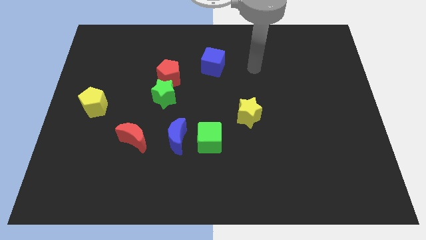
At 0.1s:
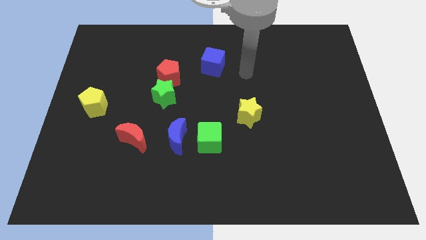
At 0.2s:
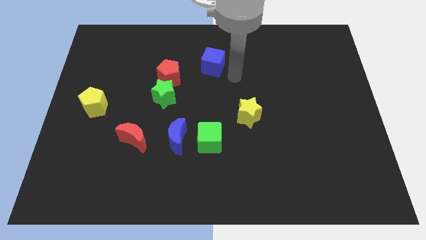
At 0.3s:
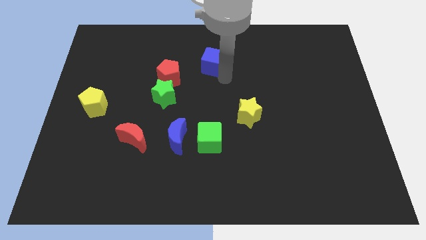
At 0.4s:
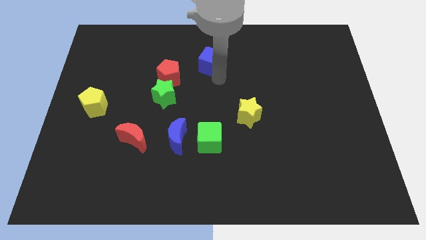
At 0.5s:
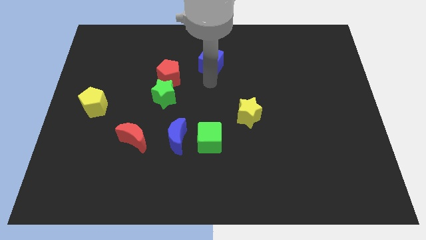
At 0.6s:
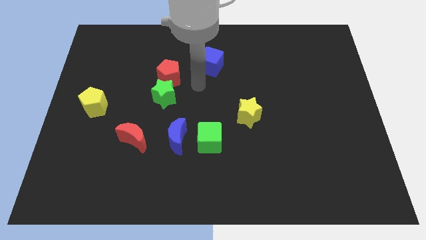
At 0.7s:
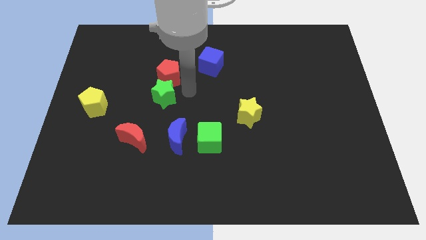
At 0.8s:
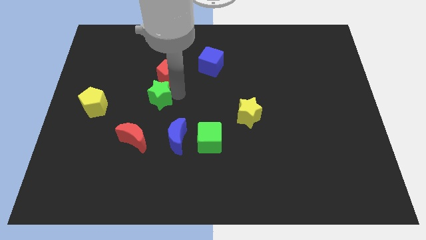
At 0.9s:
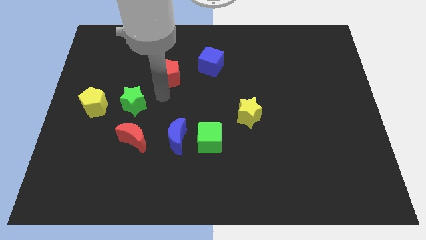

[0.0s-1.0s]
pull the red pentagon apart from the green star

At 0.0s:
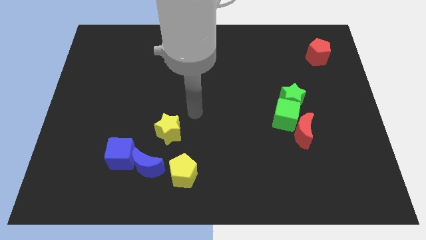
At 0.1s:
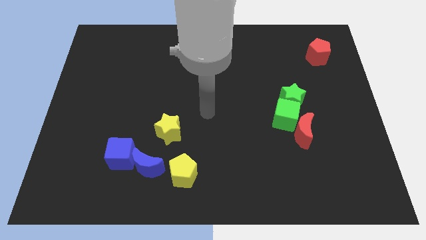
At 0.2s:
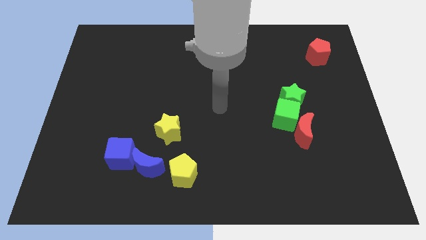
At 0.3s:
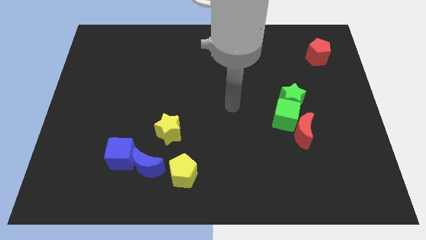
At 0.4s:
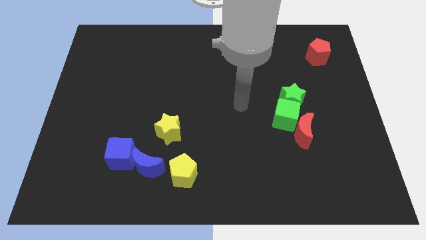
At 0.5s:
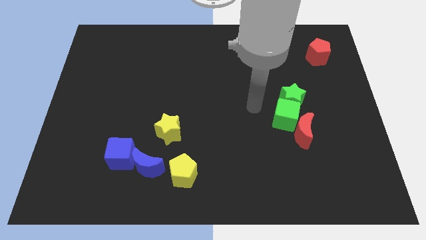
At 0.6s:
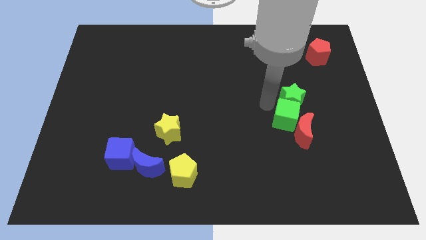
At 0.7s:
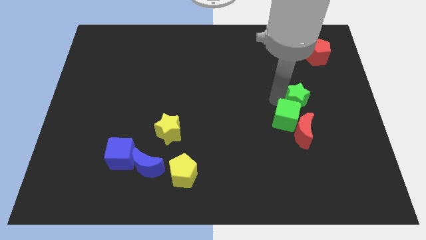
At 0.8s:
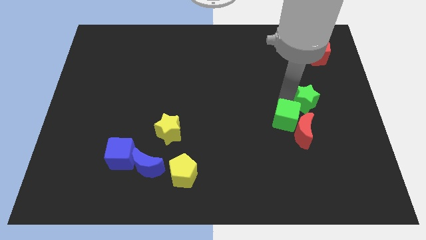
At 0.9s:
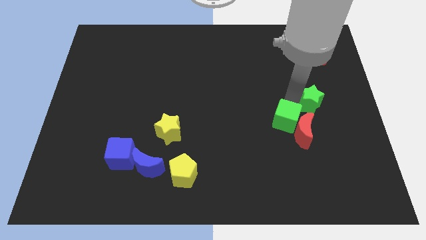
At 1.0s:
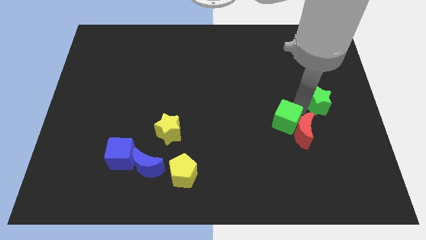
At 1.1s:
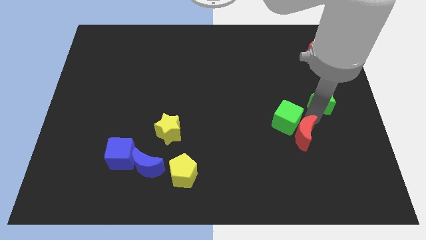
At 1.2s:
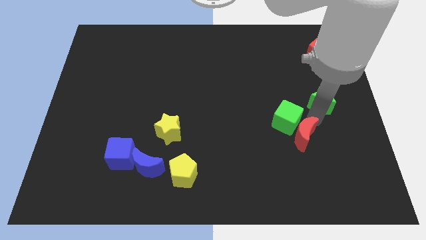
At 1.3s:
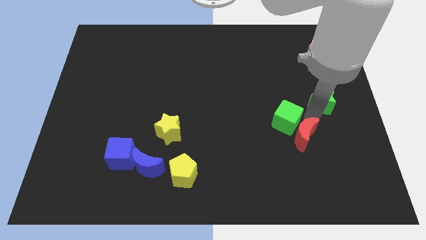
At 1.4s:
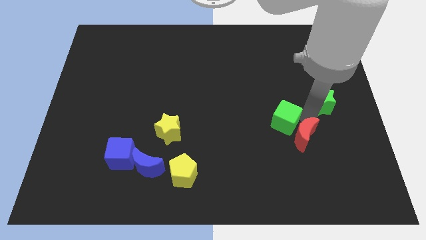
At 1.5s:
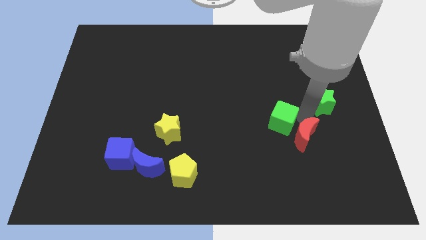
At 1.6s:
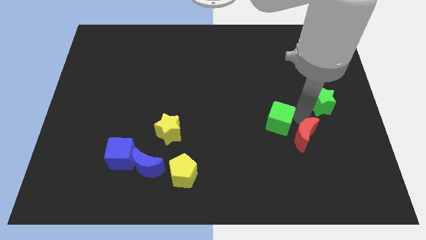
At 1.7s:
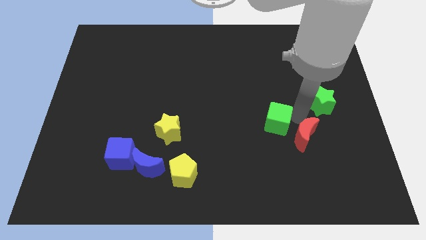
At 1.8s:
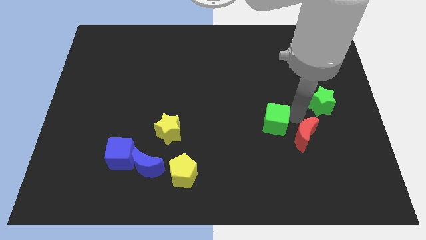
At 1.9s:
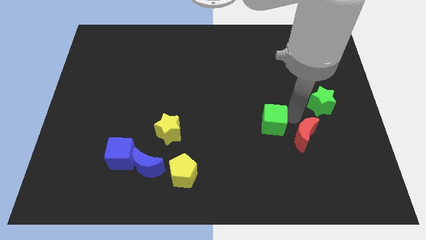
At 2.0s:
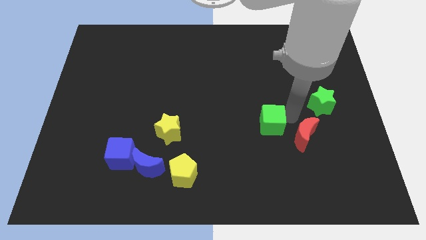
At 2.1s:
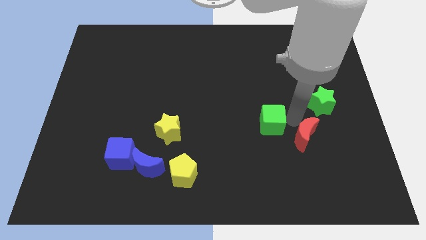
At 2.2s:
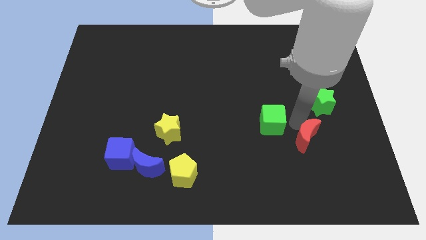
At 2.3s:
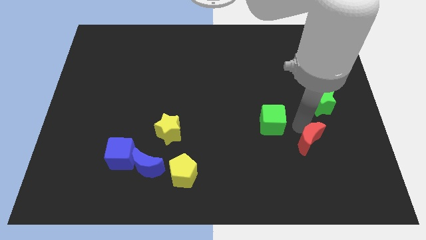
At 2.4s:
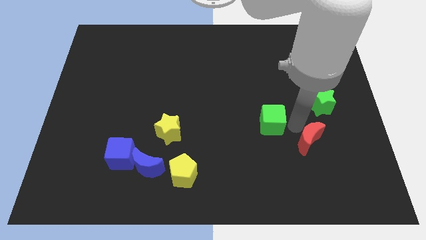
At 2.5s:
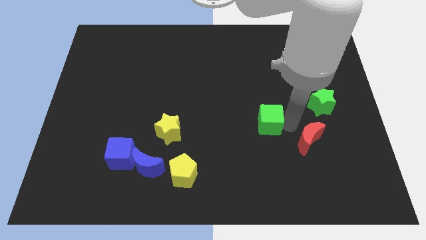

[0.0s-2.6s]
move the green cube away from the green star and red moon

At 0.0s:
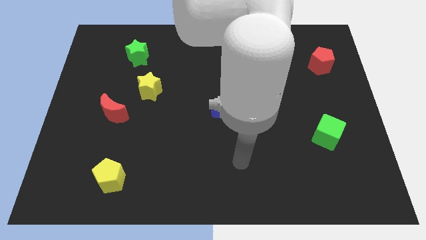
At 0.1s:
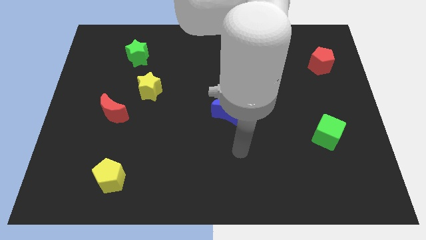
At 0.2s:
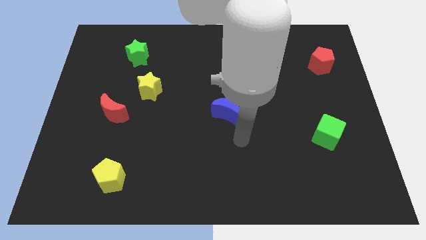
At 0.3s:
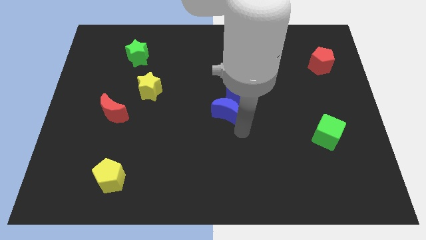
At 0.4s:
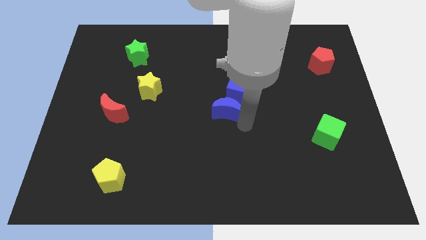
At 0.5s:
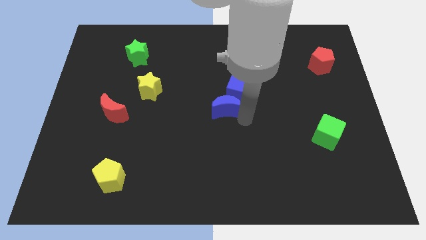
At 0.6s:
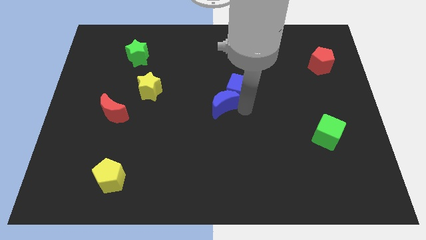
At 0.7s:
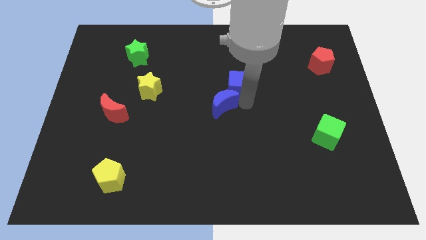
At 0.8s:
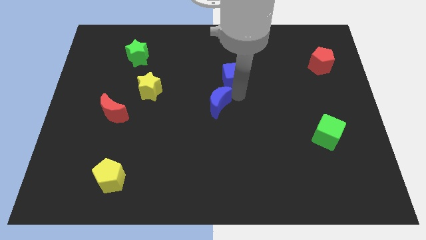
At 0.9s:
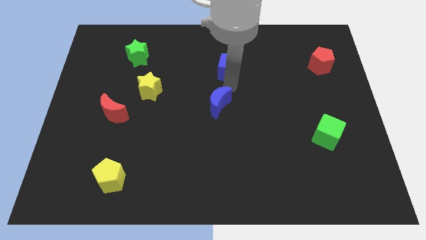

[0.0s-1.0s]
separate the blue moon from the blue cube

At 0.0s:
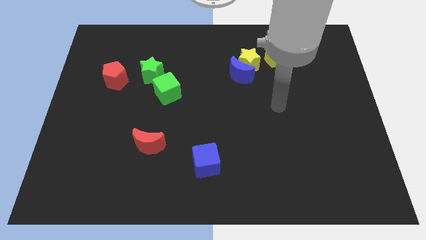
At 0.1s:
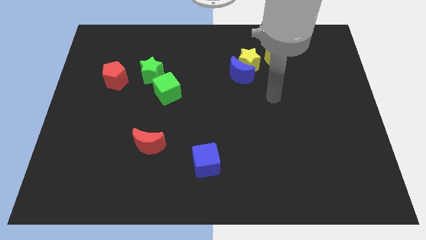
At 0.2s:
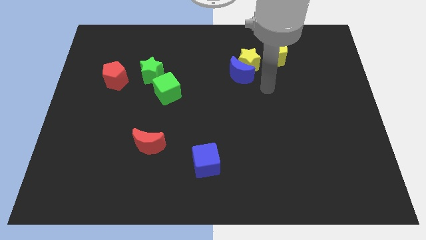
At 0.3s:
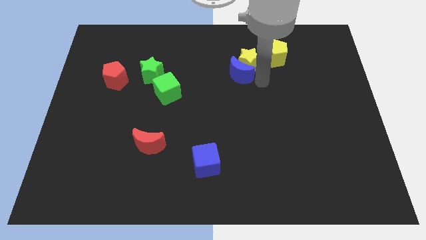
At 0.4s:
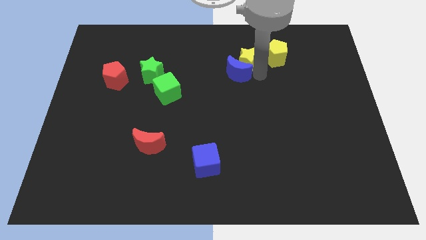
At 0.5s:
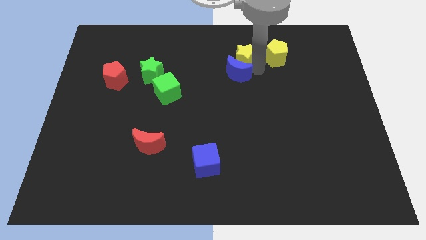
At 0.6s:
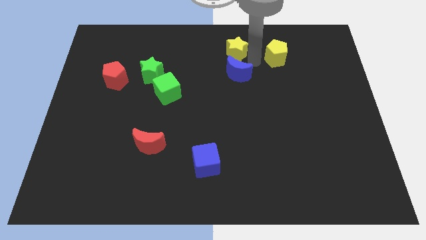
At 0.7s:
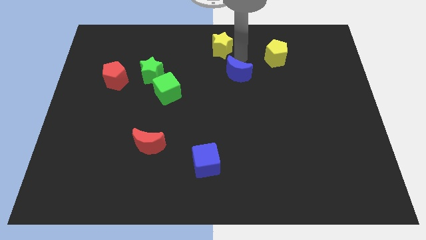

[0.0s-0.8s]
pull the blue moon apart from the yellow star

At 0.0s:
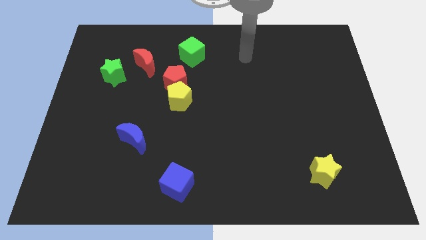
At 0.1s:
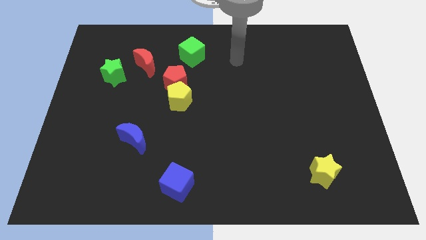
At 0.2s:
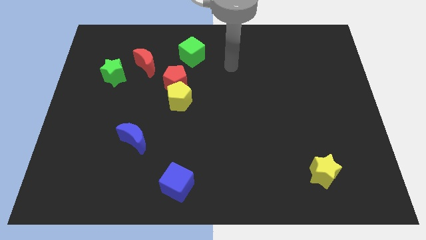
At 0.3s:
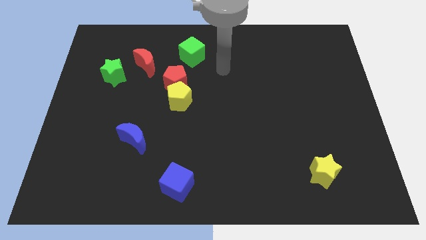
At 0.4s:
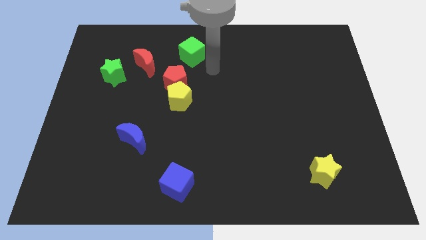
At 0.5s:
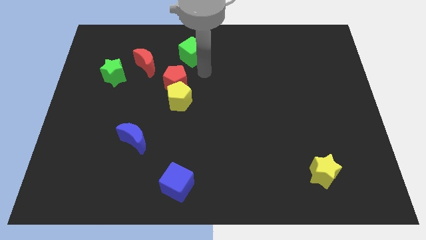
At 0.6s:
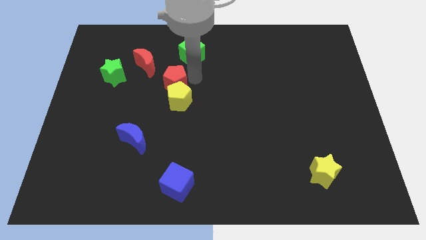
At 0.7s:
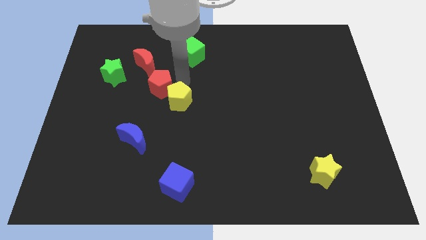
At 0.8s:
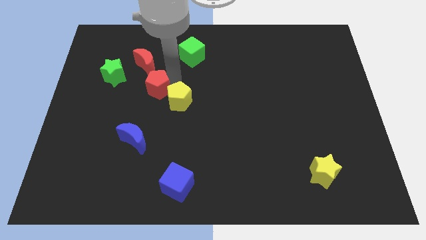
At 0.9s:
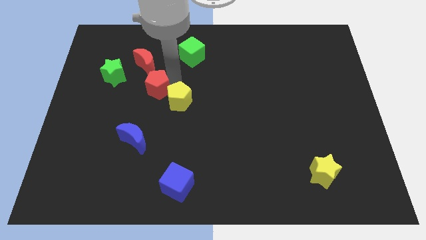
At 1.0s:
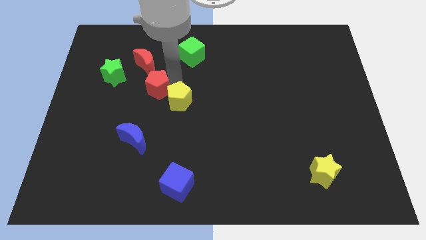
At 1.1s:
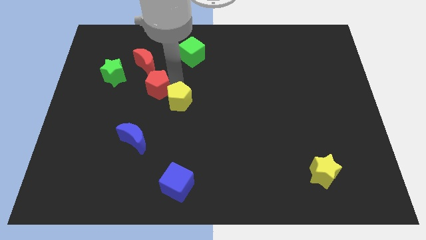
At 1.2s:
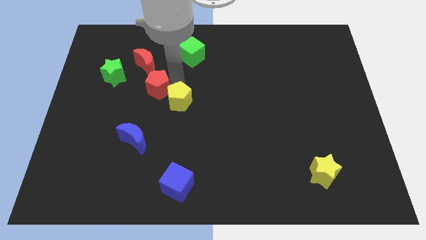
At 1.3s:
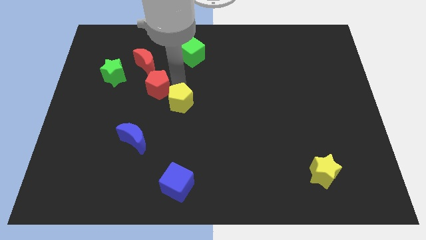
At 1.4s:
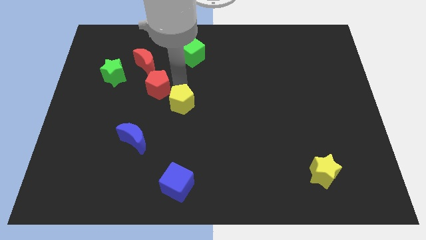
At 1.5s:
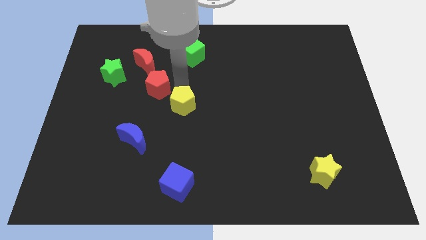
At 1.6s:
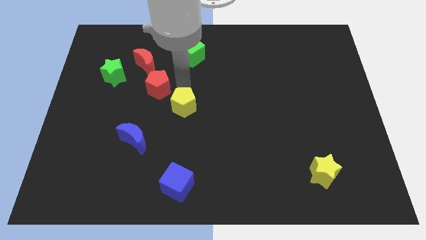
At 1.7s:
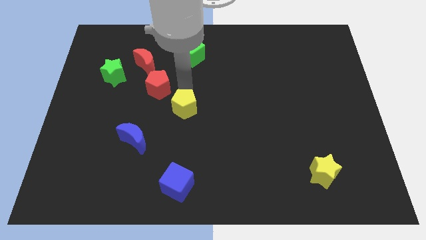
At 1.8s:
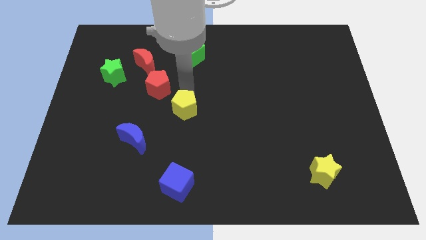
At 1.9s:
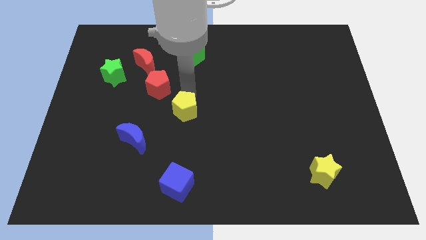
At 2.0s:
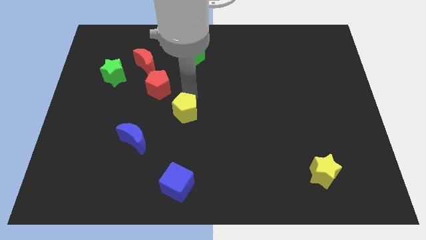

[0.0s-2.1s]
move the yellow pentagon away from the red pentagon

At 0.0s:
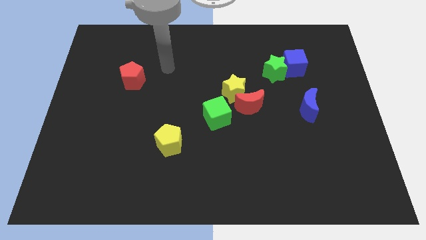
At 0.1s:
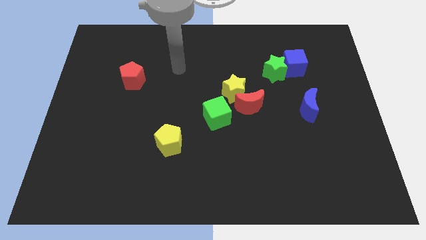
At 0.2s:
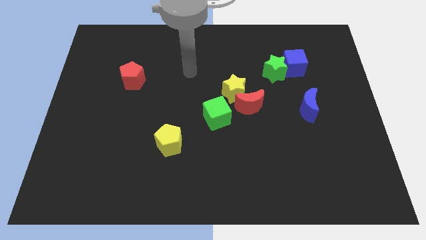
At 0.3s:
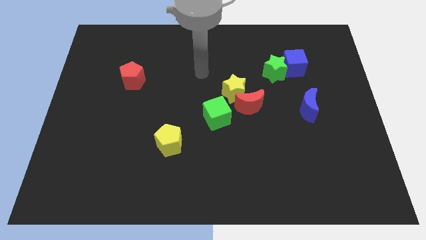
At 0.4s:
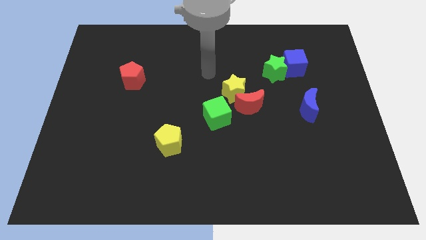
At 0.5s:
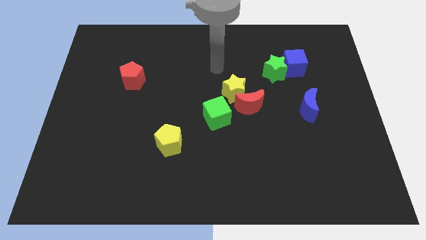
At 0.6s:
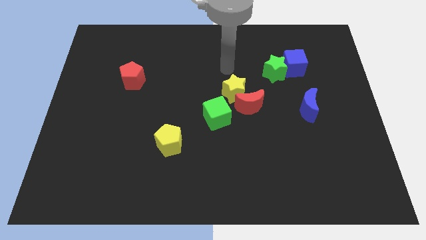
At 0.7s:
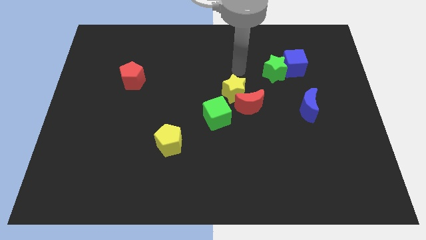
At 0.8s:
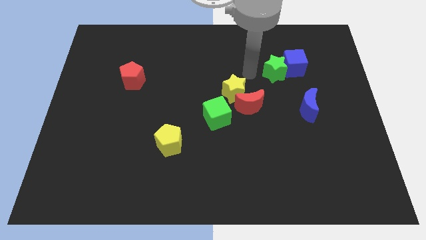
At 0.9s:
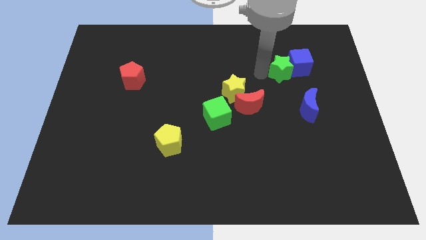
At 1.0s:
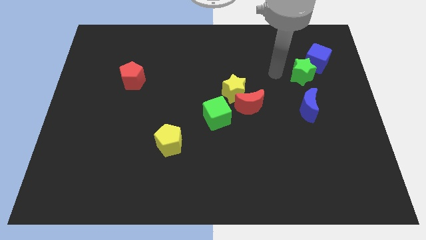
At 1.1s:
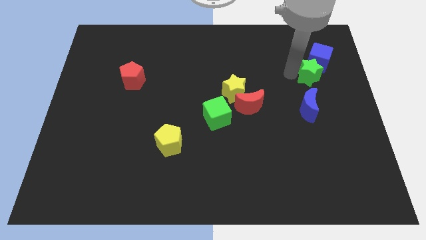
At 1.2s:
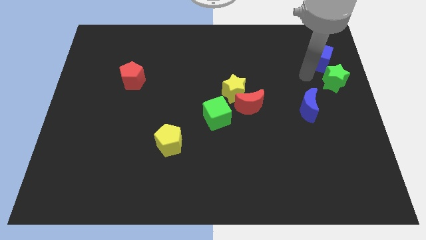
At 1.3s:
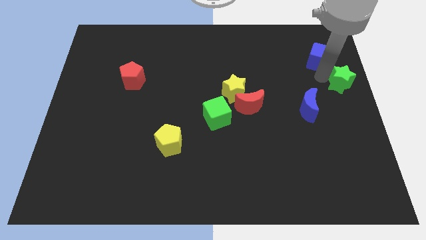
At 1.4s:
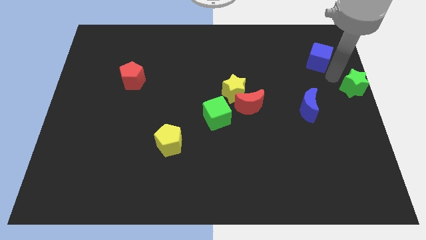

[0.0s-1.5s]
pull the blue cube apart from the green star

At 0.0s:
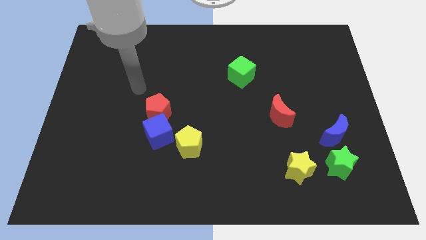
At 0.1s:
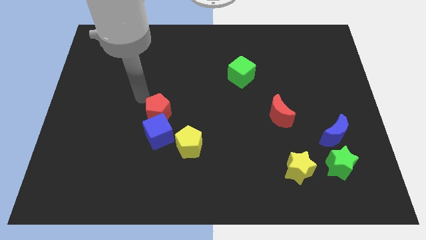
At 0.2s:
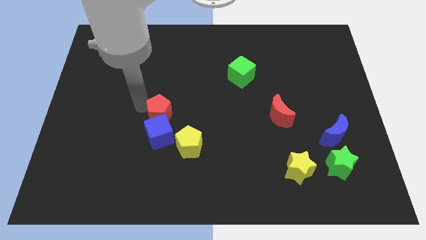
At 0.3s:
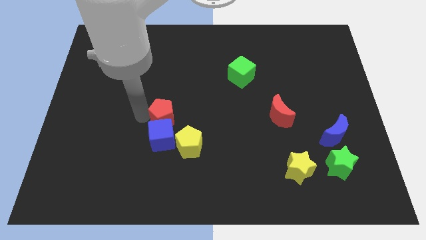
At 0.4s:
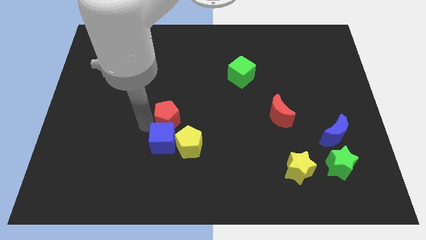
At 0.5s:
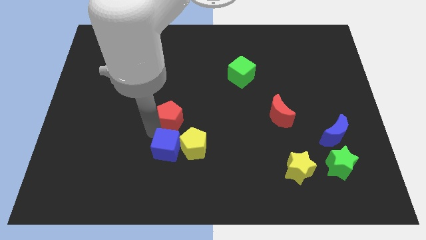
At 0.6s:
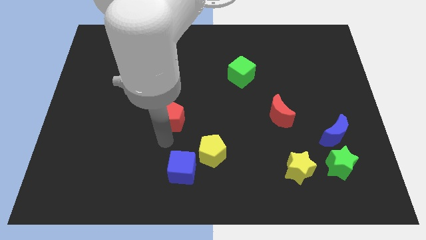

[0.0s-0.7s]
move the red pentagon away from the blue cube
